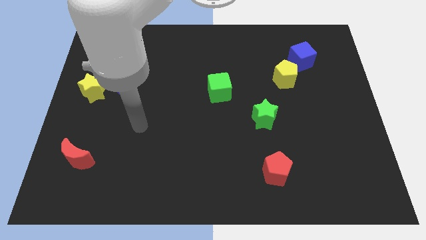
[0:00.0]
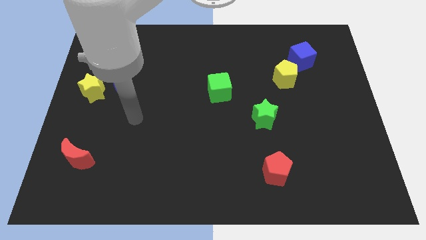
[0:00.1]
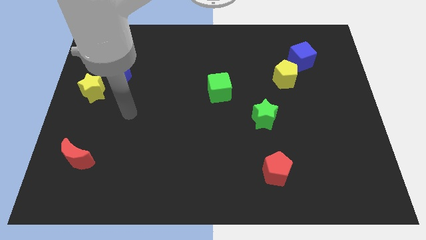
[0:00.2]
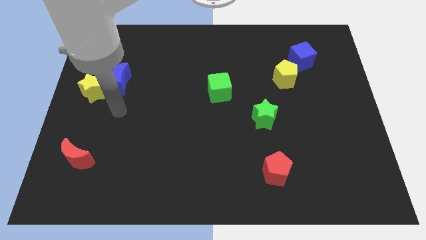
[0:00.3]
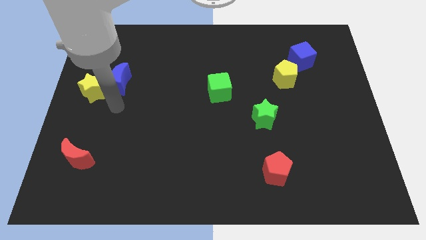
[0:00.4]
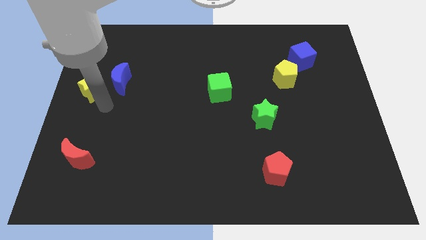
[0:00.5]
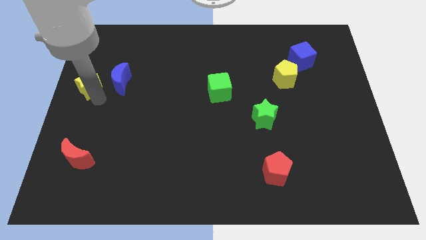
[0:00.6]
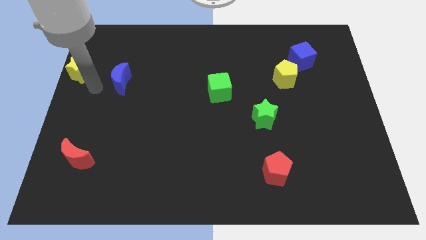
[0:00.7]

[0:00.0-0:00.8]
move the blue moon away from the yellow star

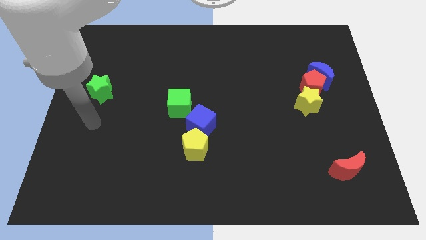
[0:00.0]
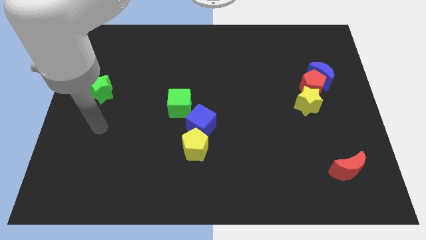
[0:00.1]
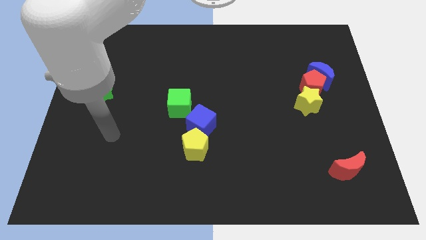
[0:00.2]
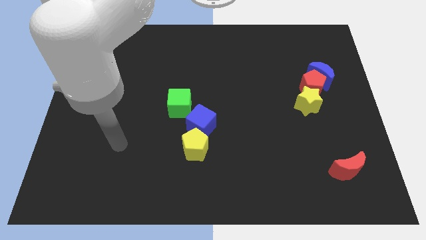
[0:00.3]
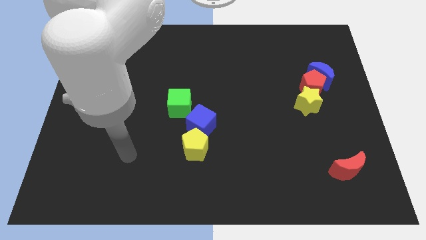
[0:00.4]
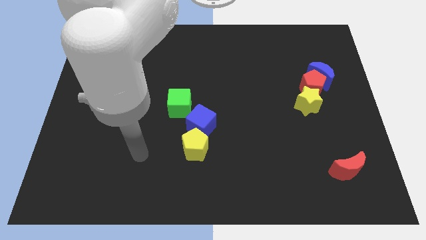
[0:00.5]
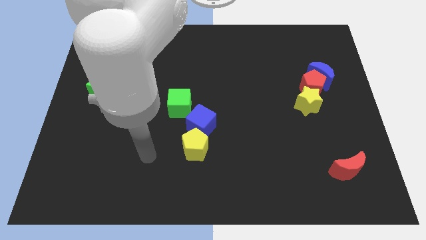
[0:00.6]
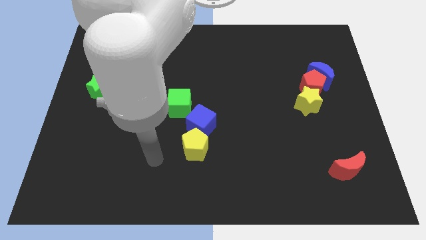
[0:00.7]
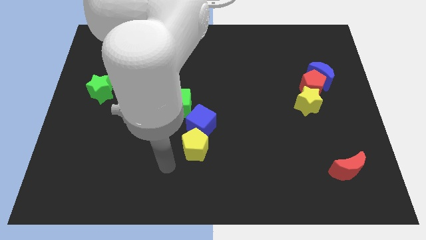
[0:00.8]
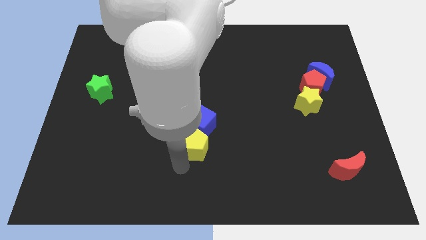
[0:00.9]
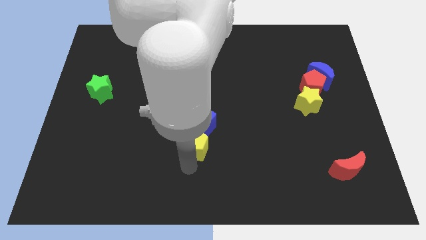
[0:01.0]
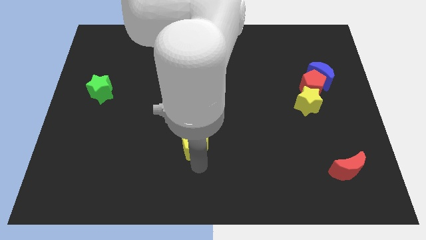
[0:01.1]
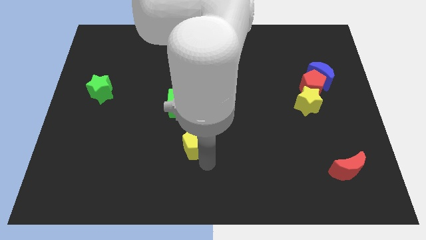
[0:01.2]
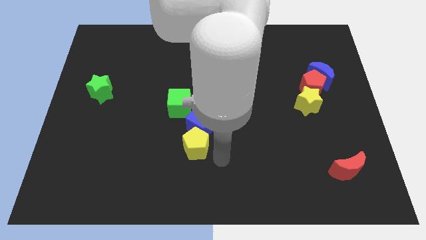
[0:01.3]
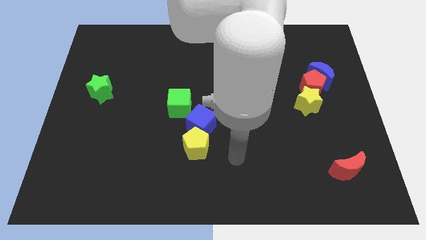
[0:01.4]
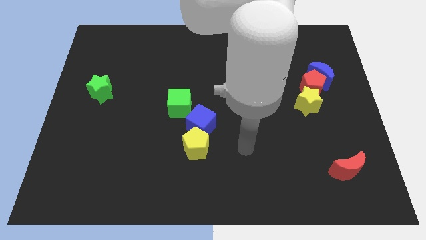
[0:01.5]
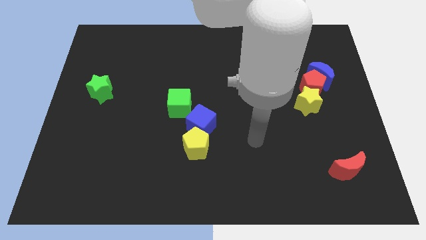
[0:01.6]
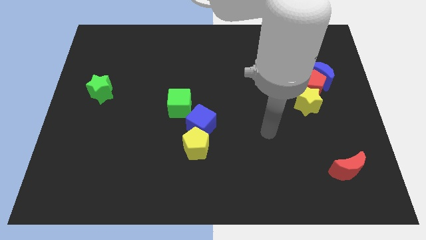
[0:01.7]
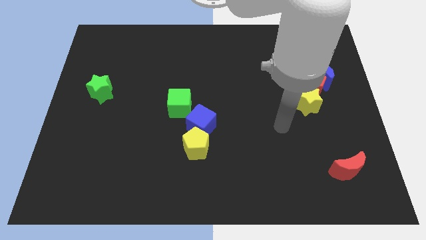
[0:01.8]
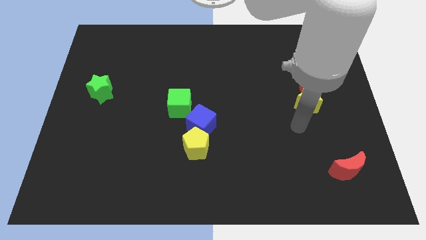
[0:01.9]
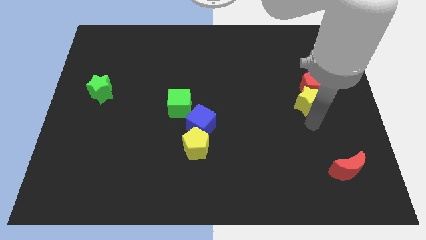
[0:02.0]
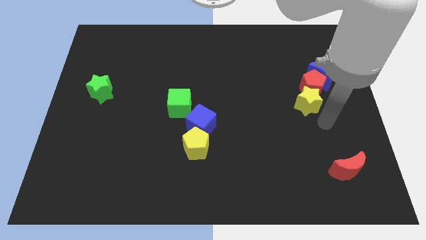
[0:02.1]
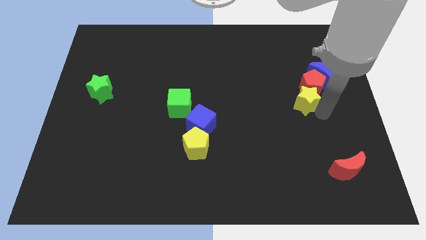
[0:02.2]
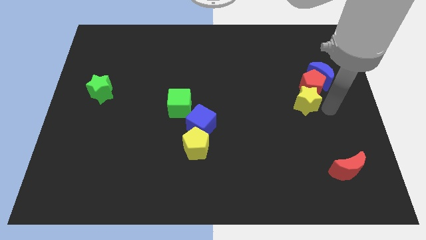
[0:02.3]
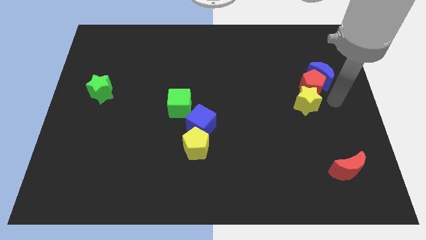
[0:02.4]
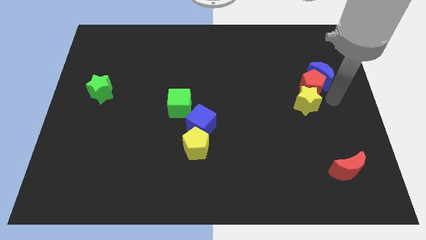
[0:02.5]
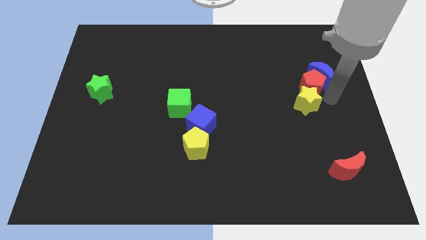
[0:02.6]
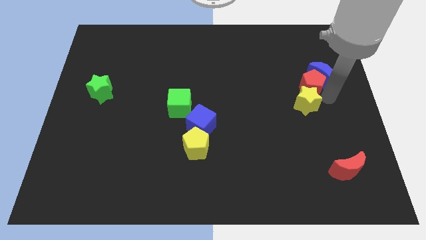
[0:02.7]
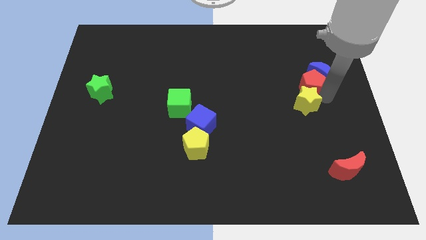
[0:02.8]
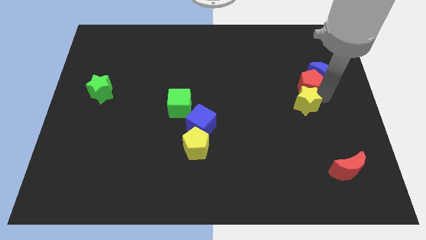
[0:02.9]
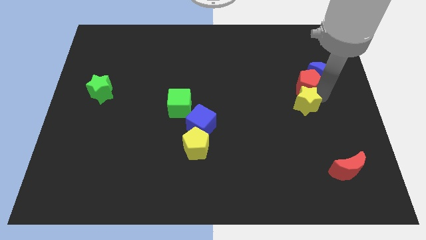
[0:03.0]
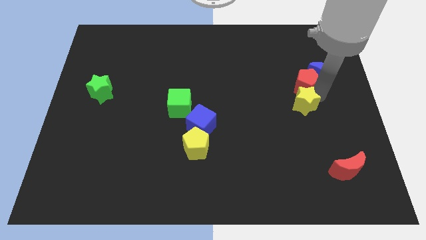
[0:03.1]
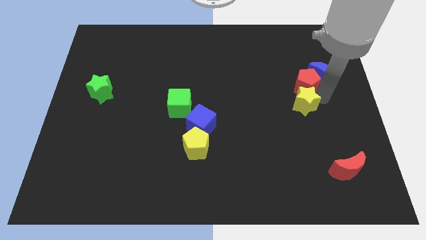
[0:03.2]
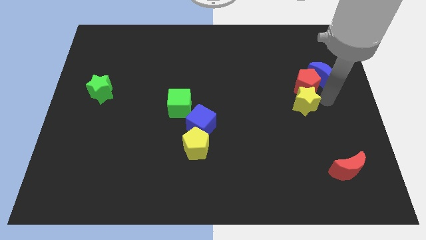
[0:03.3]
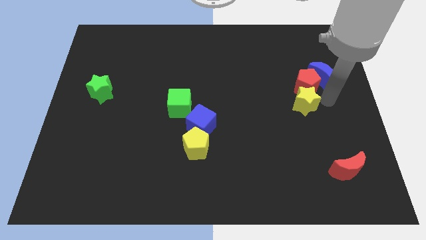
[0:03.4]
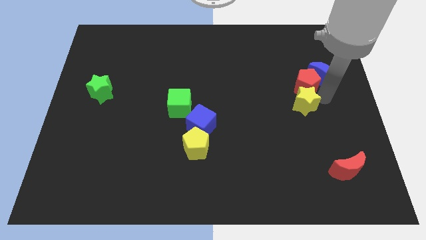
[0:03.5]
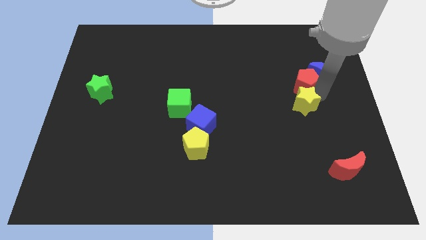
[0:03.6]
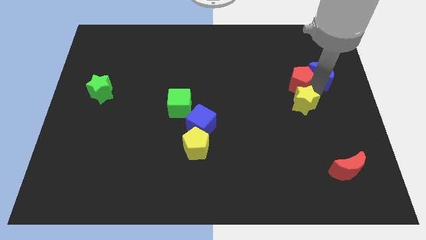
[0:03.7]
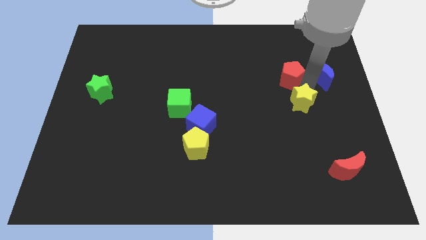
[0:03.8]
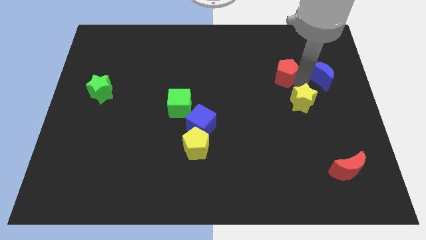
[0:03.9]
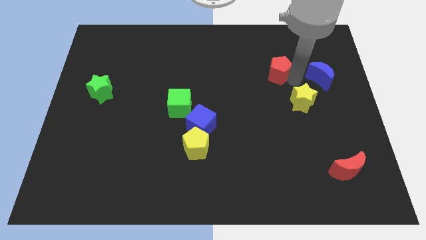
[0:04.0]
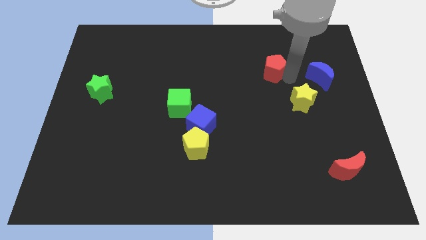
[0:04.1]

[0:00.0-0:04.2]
move the red pentagon away from the blue moon and yellow star

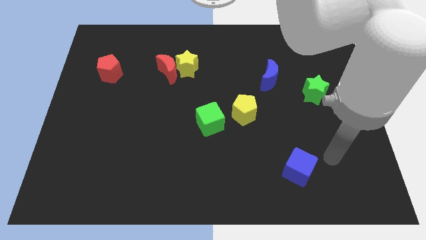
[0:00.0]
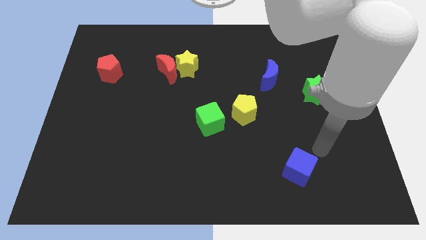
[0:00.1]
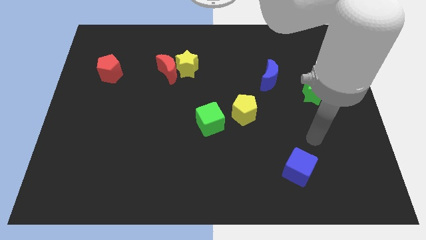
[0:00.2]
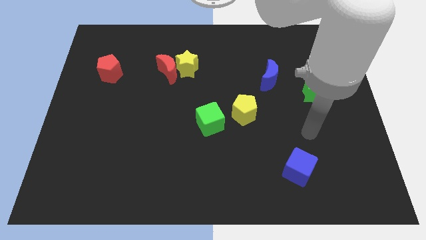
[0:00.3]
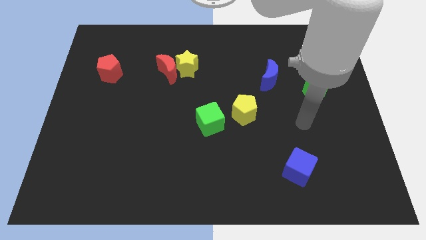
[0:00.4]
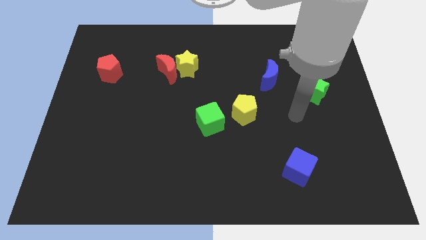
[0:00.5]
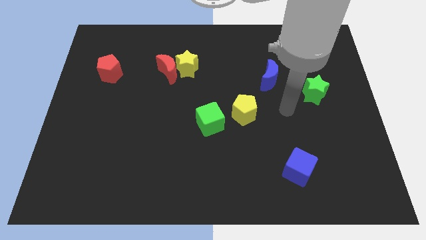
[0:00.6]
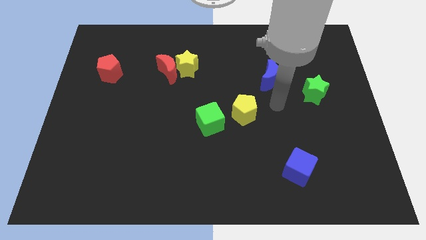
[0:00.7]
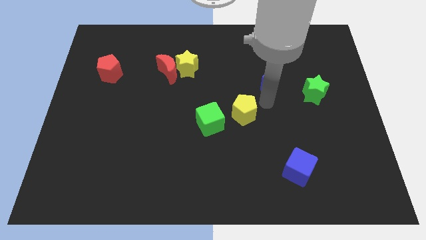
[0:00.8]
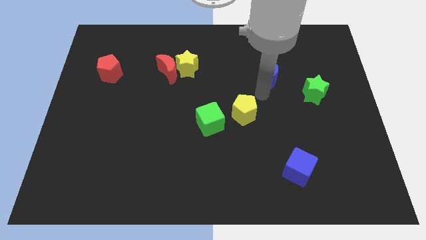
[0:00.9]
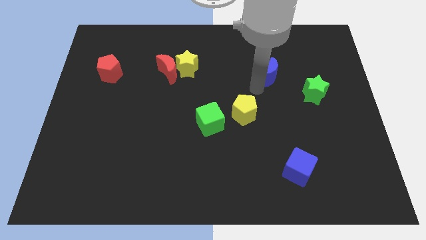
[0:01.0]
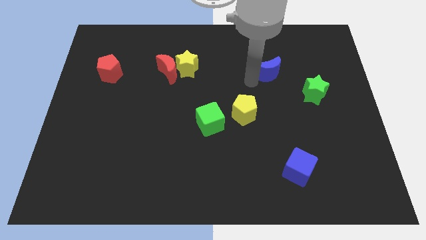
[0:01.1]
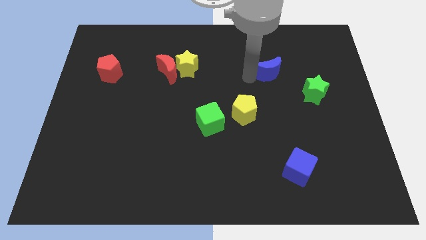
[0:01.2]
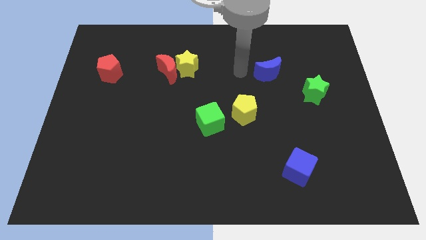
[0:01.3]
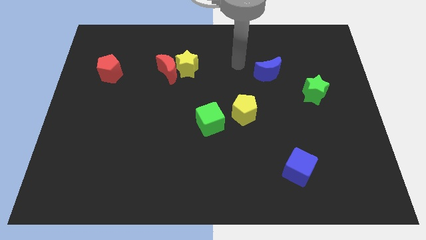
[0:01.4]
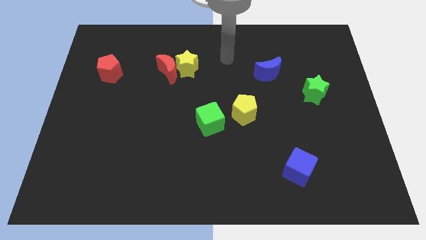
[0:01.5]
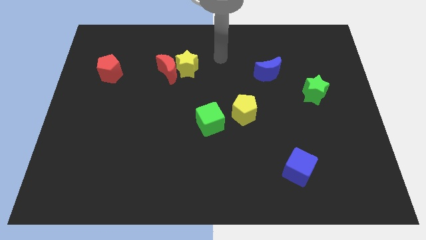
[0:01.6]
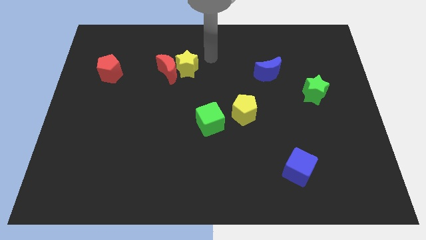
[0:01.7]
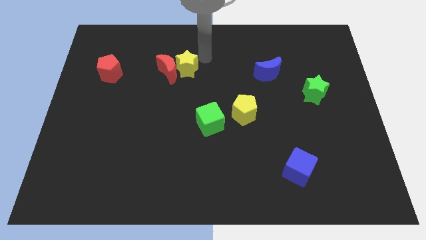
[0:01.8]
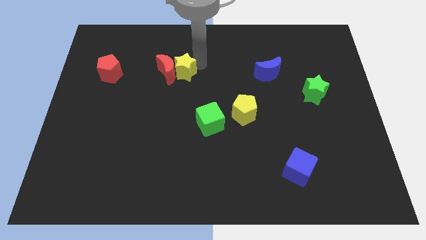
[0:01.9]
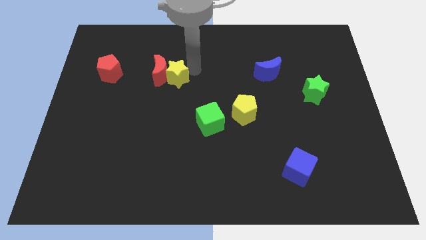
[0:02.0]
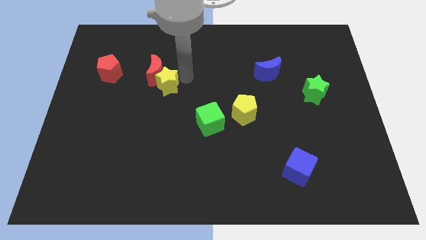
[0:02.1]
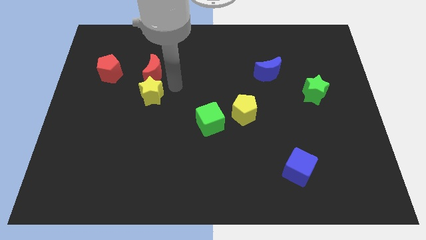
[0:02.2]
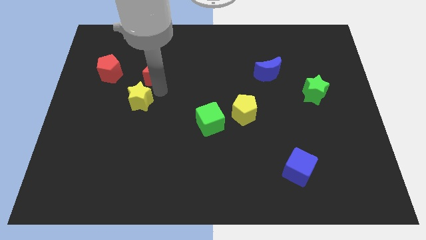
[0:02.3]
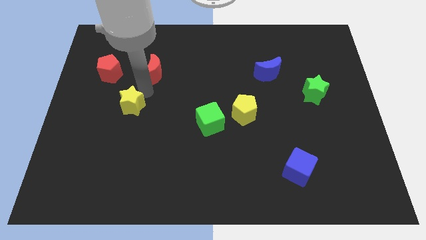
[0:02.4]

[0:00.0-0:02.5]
pull the red moon apart from the yellow star

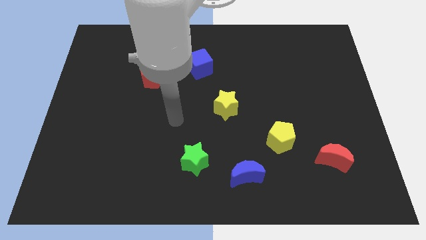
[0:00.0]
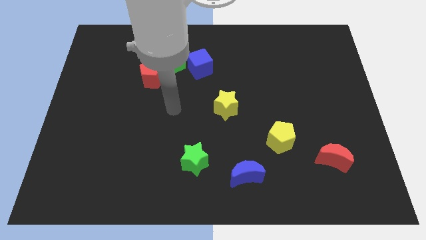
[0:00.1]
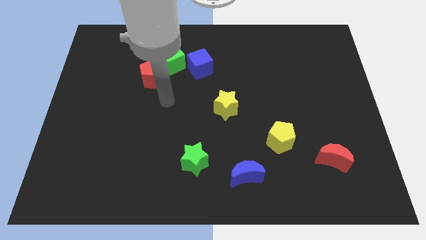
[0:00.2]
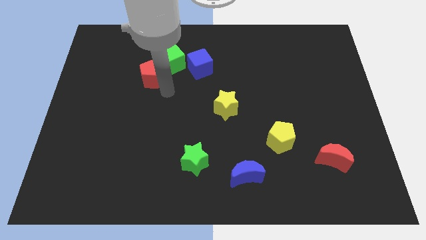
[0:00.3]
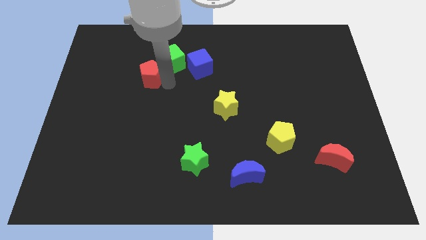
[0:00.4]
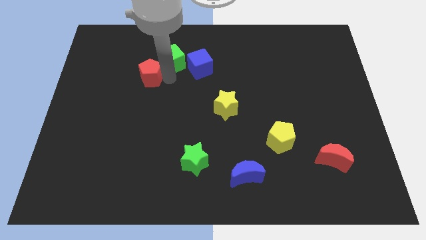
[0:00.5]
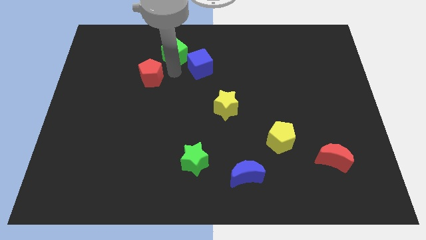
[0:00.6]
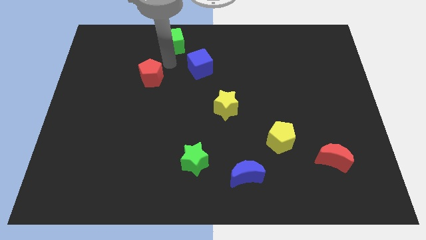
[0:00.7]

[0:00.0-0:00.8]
pull the red pentagon apart from the green cube

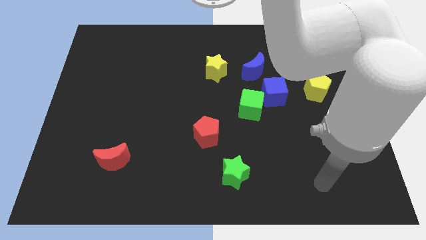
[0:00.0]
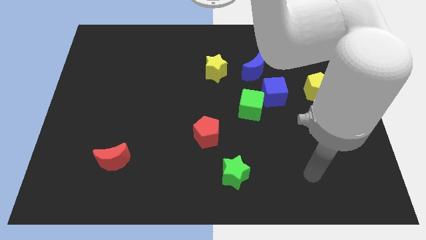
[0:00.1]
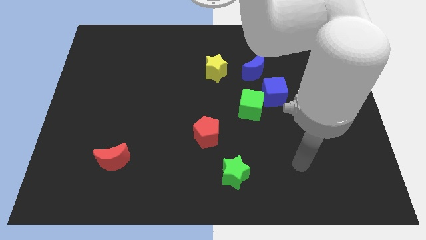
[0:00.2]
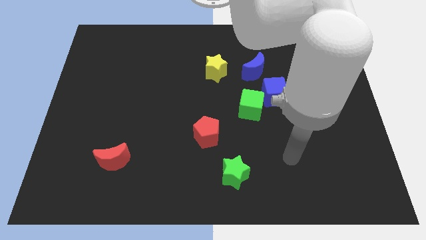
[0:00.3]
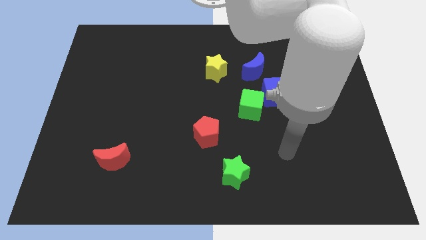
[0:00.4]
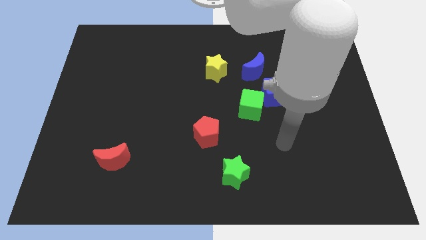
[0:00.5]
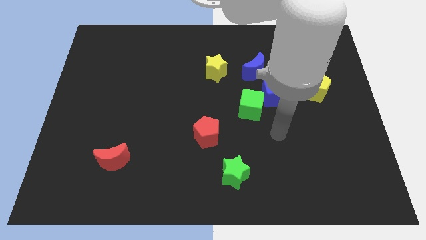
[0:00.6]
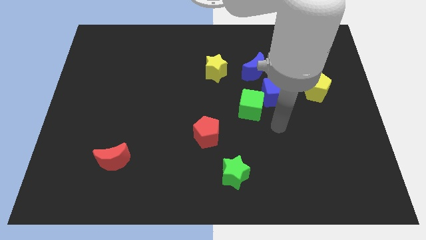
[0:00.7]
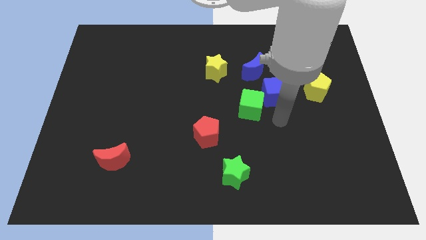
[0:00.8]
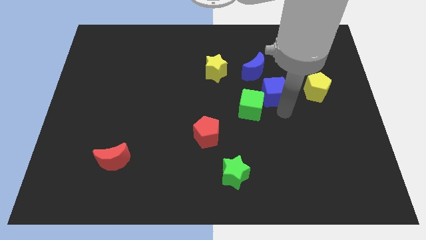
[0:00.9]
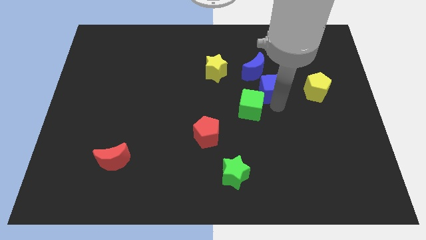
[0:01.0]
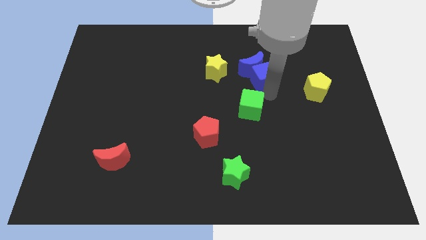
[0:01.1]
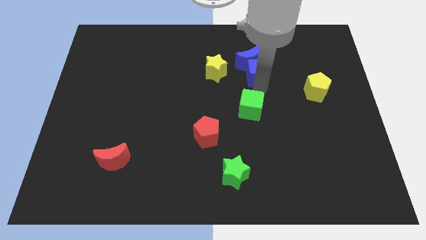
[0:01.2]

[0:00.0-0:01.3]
move the green cube away from the blue cube
